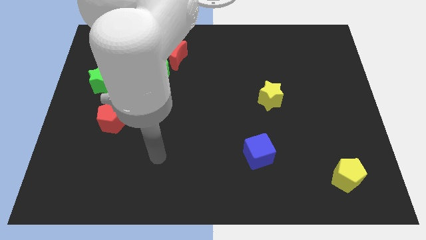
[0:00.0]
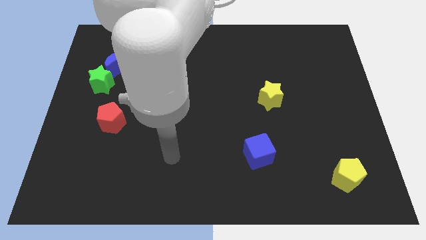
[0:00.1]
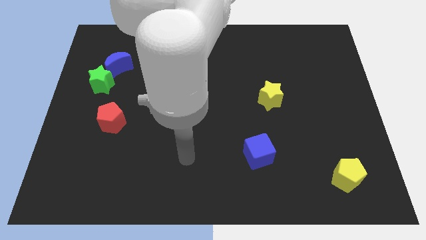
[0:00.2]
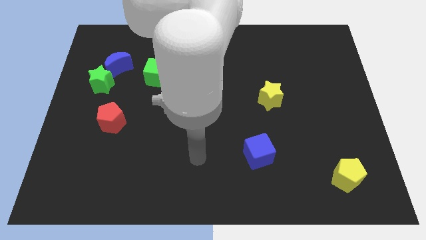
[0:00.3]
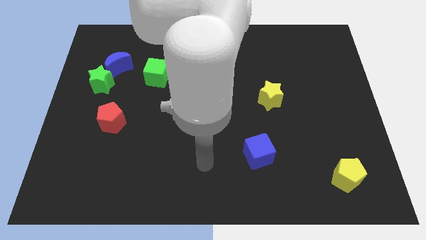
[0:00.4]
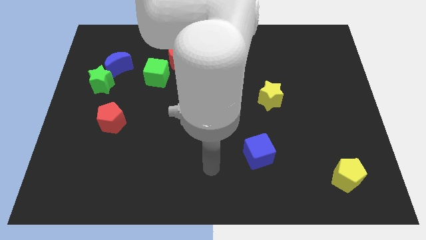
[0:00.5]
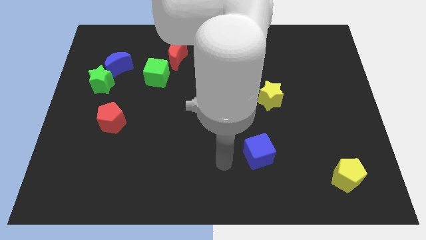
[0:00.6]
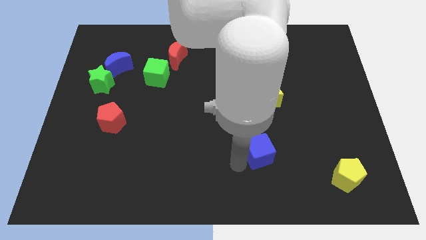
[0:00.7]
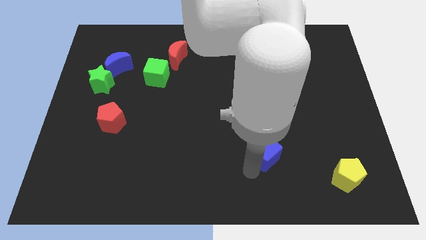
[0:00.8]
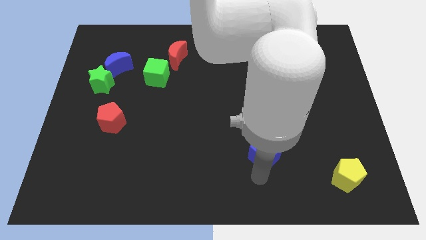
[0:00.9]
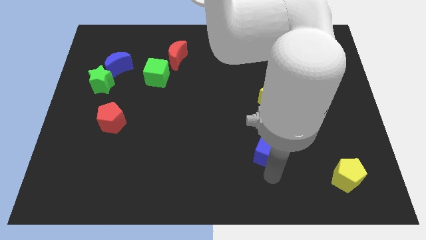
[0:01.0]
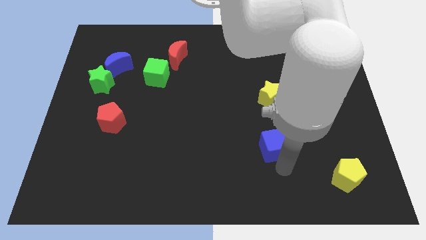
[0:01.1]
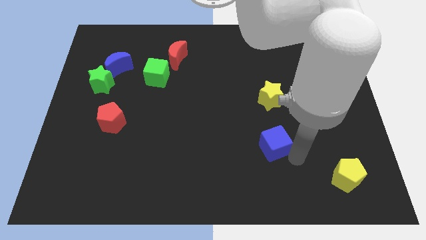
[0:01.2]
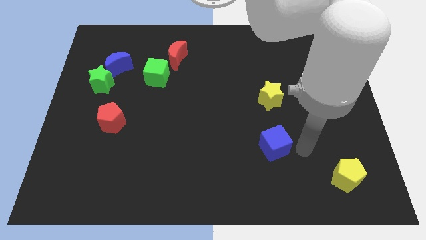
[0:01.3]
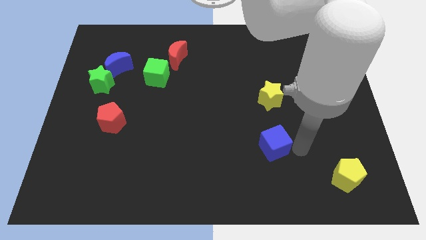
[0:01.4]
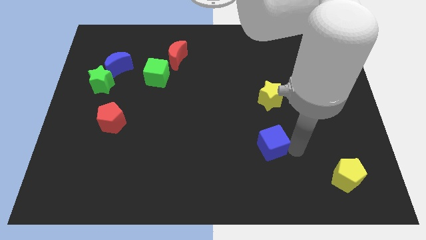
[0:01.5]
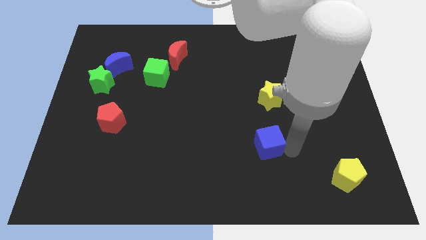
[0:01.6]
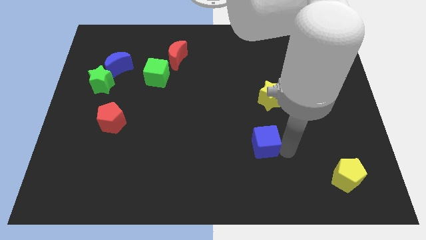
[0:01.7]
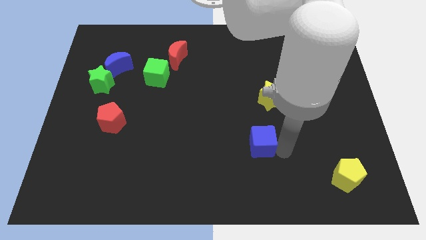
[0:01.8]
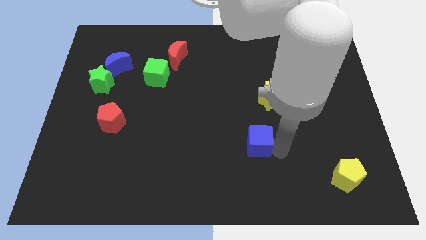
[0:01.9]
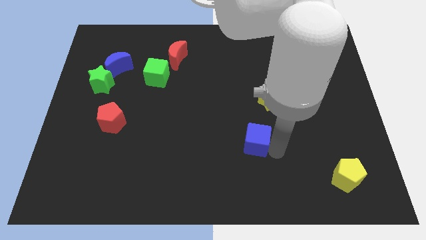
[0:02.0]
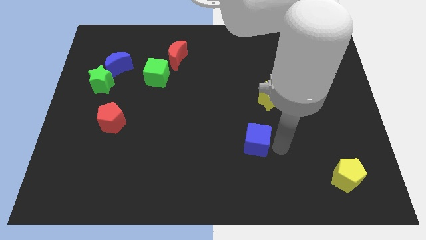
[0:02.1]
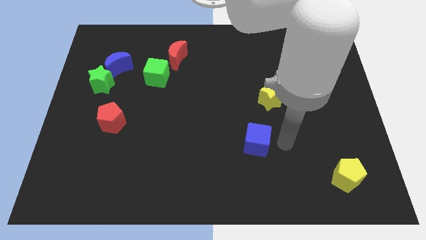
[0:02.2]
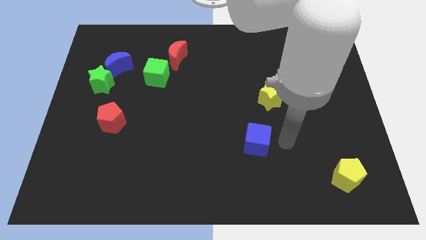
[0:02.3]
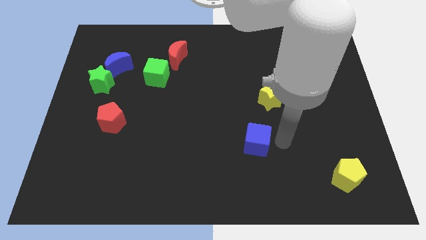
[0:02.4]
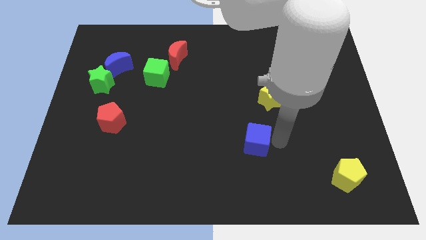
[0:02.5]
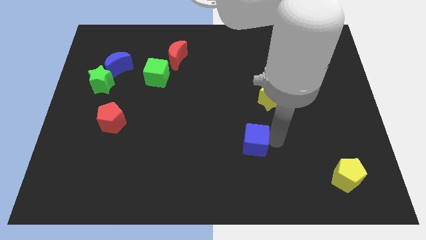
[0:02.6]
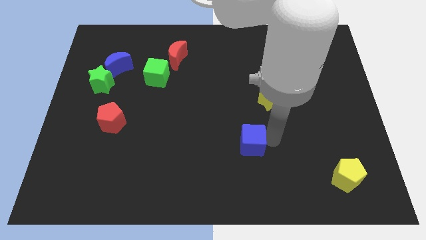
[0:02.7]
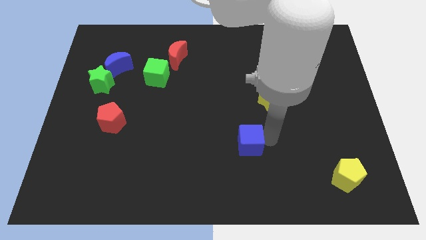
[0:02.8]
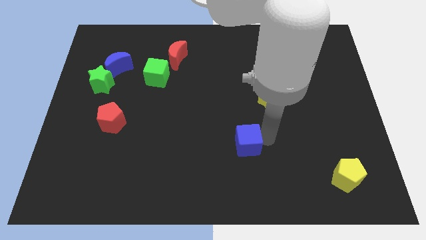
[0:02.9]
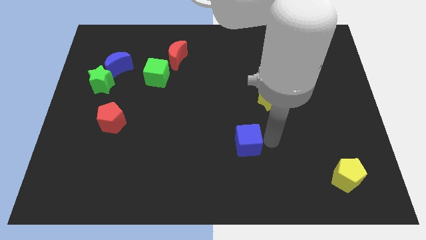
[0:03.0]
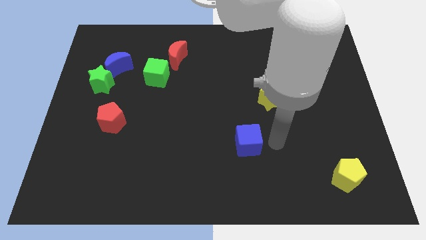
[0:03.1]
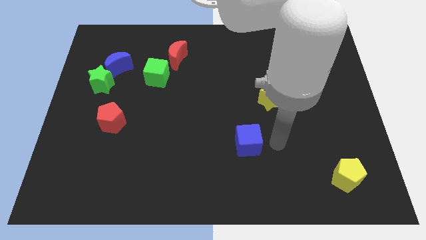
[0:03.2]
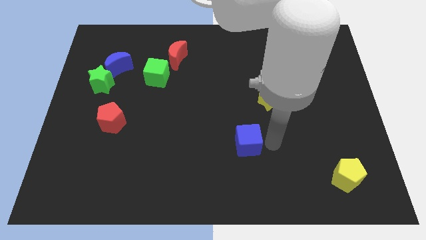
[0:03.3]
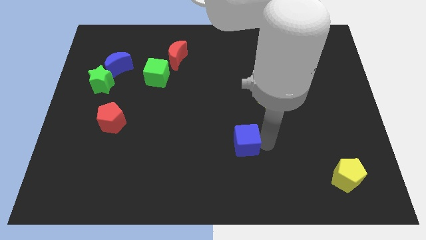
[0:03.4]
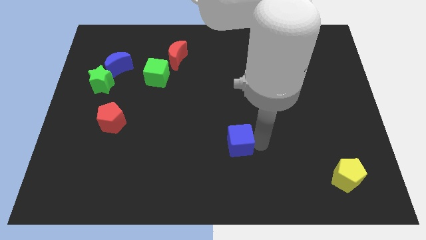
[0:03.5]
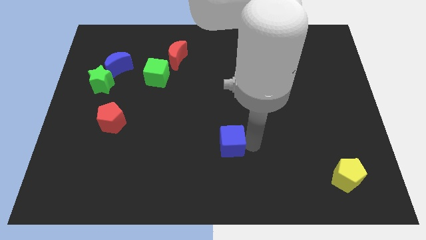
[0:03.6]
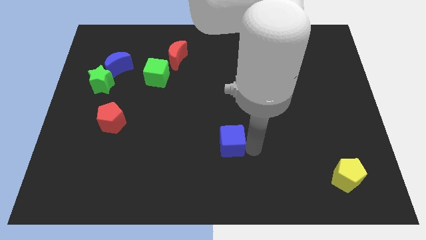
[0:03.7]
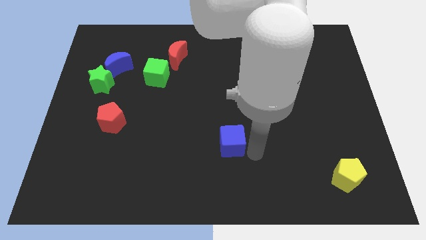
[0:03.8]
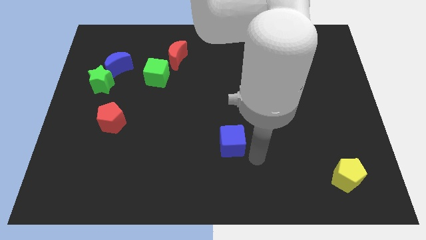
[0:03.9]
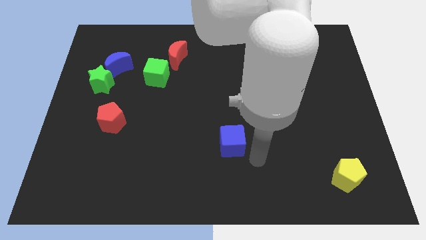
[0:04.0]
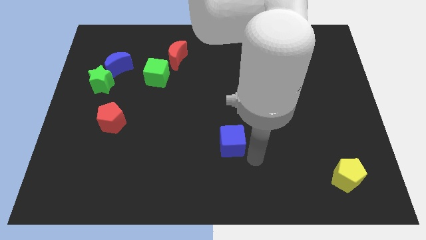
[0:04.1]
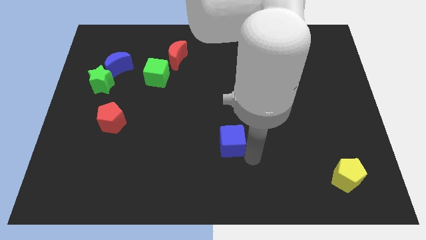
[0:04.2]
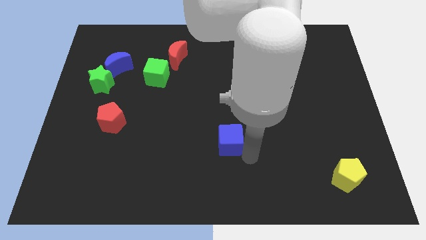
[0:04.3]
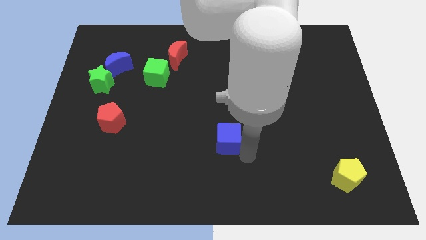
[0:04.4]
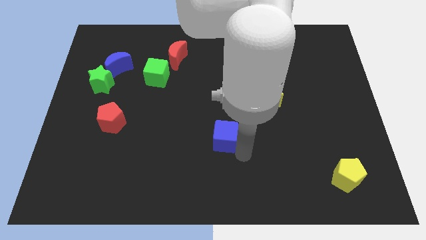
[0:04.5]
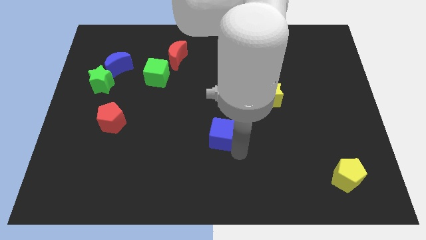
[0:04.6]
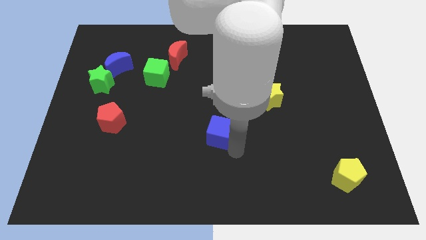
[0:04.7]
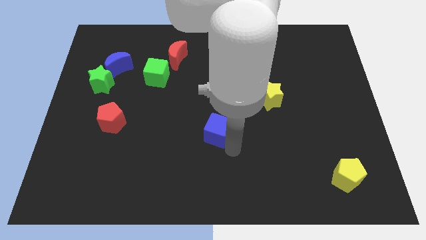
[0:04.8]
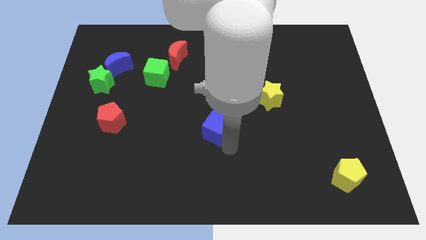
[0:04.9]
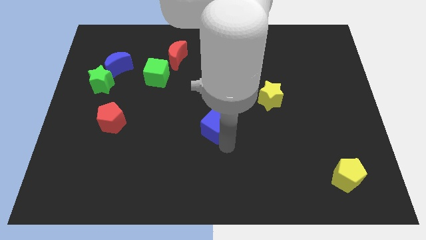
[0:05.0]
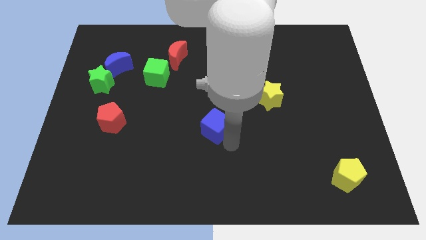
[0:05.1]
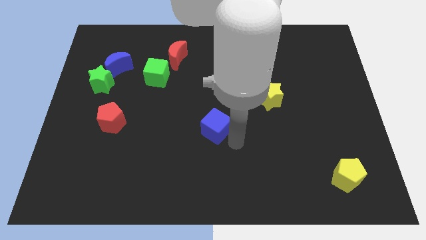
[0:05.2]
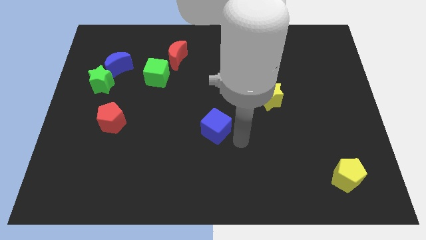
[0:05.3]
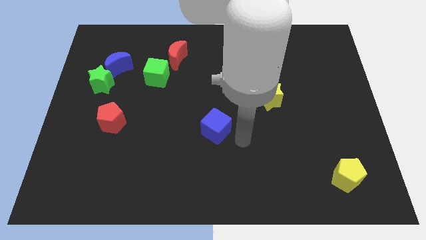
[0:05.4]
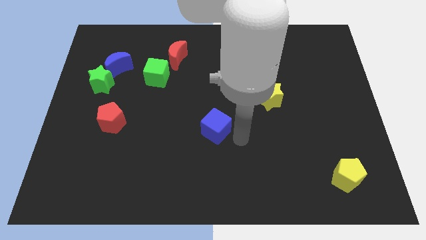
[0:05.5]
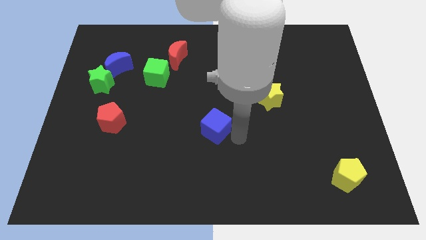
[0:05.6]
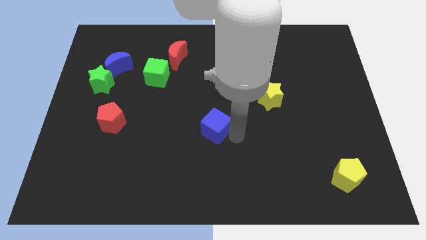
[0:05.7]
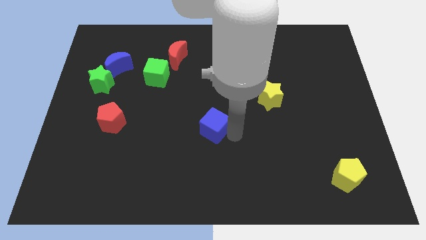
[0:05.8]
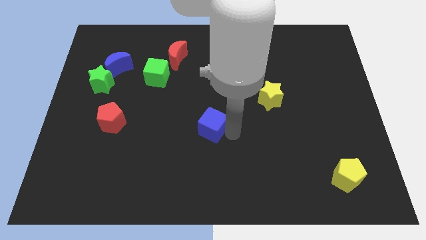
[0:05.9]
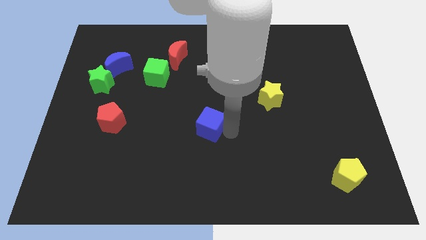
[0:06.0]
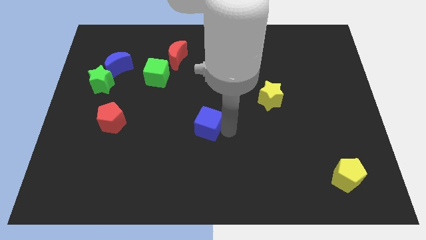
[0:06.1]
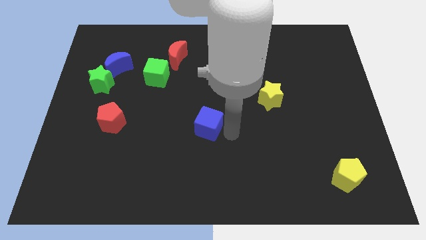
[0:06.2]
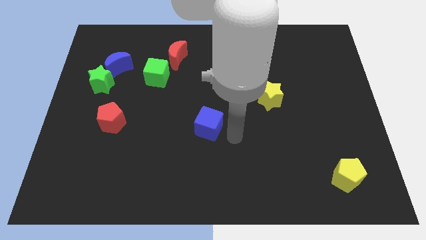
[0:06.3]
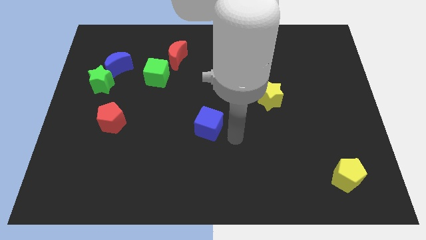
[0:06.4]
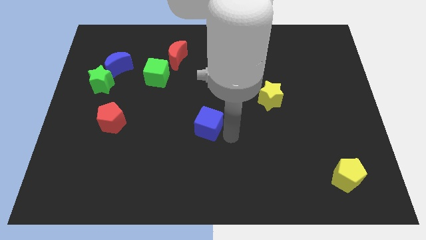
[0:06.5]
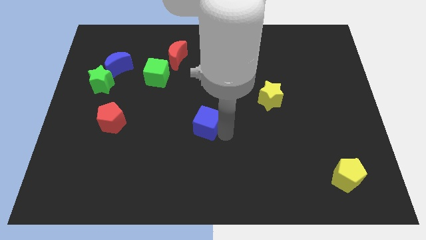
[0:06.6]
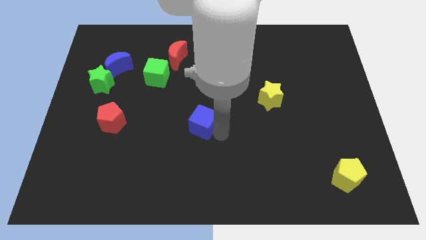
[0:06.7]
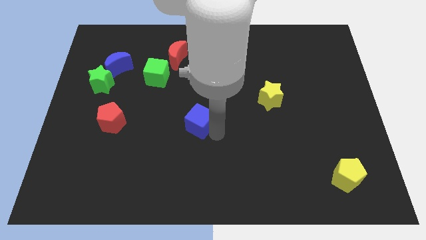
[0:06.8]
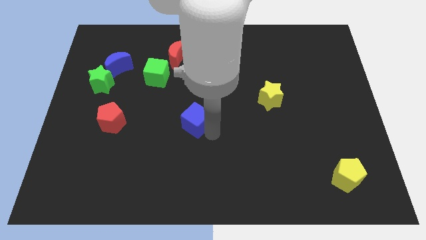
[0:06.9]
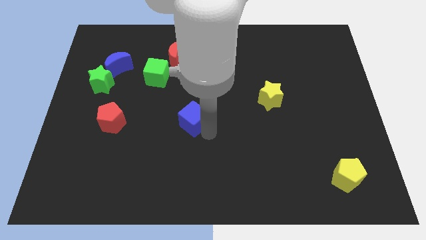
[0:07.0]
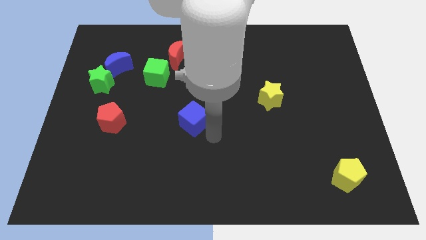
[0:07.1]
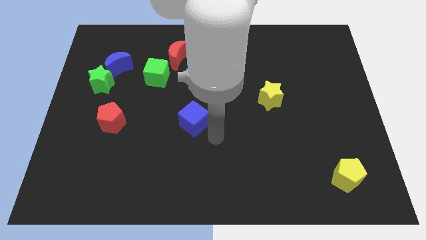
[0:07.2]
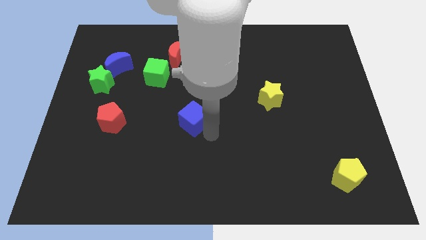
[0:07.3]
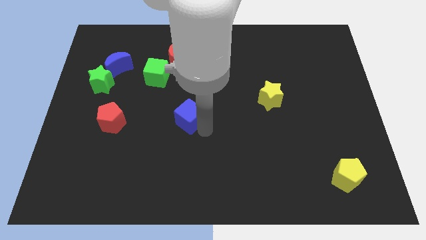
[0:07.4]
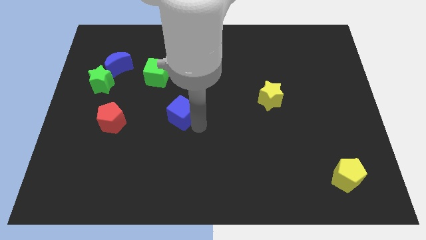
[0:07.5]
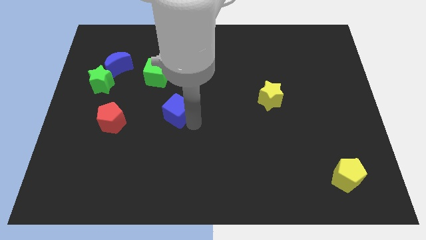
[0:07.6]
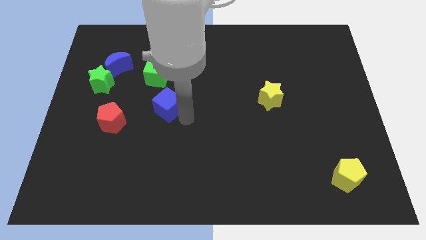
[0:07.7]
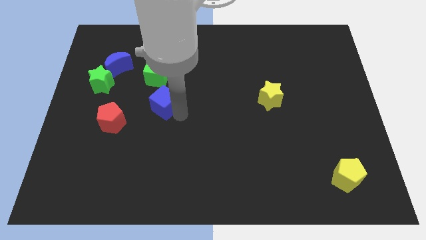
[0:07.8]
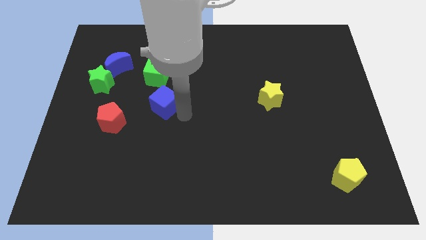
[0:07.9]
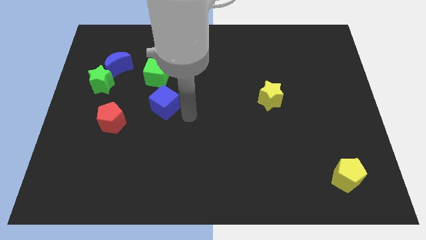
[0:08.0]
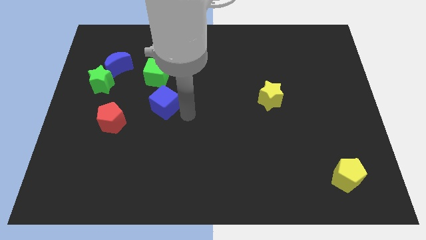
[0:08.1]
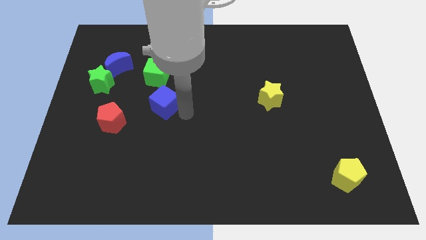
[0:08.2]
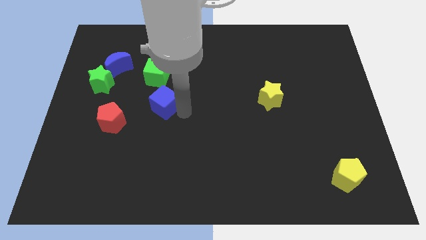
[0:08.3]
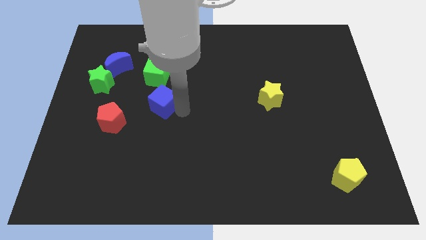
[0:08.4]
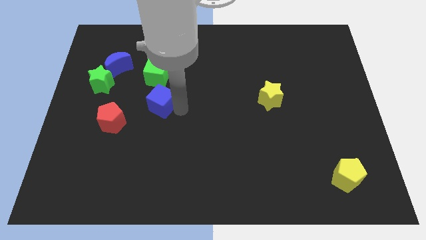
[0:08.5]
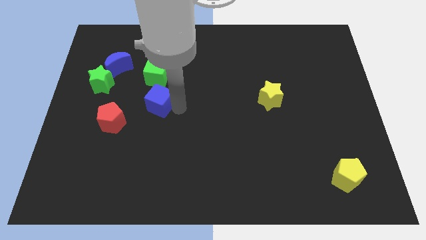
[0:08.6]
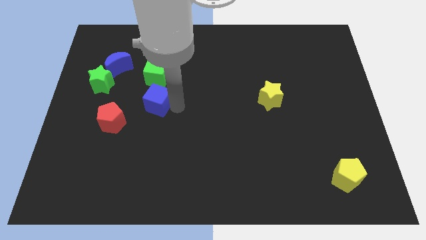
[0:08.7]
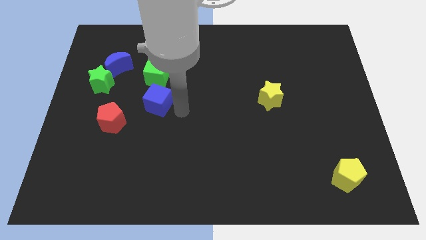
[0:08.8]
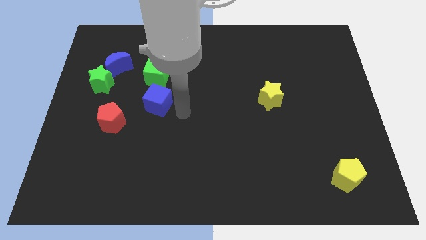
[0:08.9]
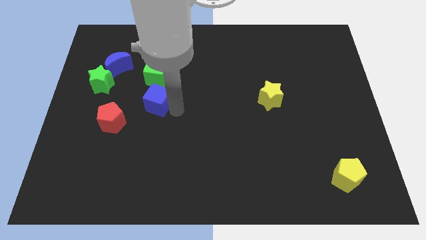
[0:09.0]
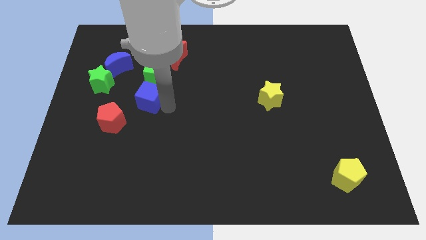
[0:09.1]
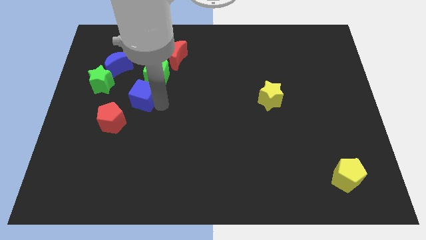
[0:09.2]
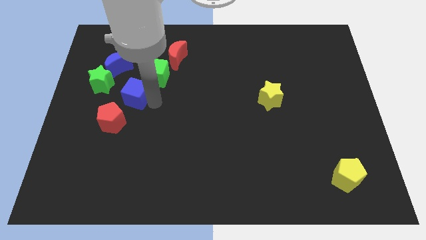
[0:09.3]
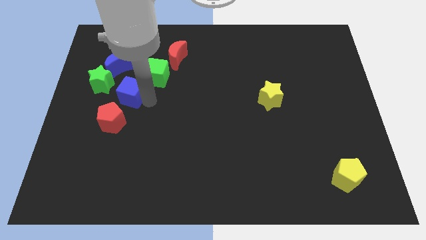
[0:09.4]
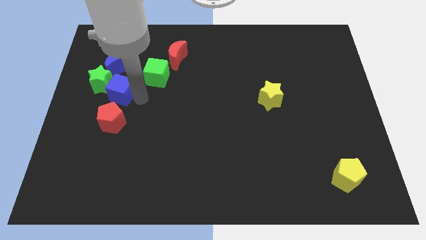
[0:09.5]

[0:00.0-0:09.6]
slide the blue cube to the green star
